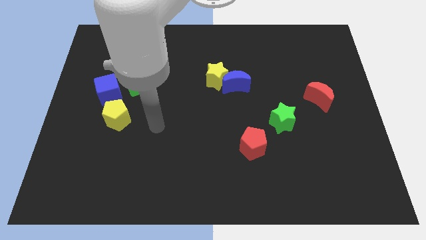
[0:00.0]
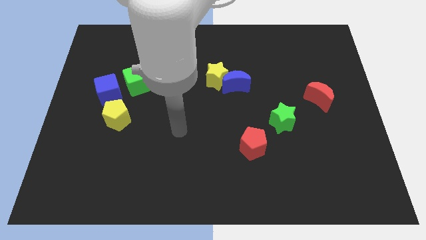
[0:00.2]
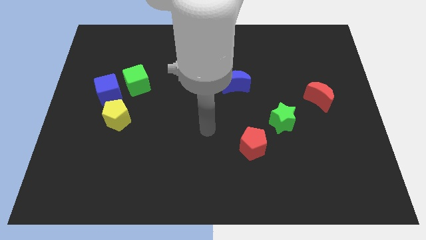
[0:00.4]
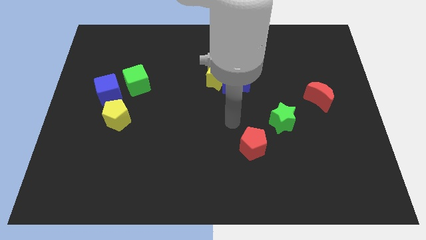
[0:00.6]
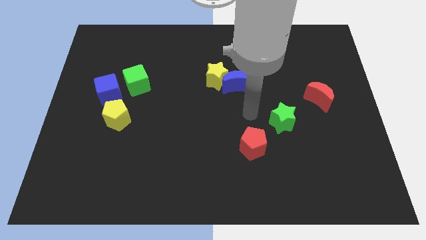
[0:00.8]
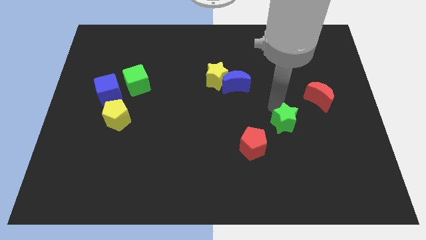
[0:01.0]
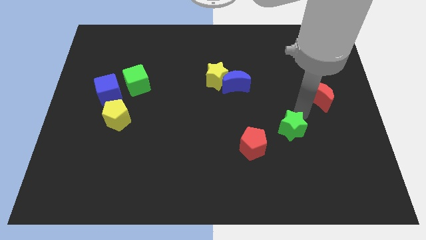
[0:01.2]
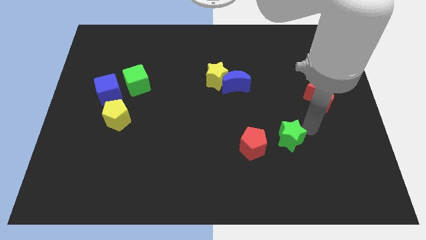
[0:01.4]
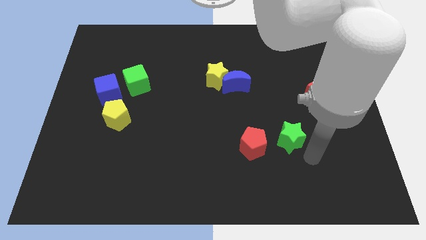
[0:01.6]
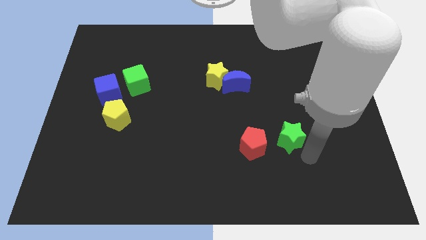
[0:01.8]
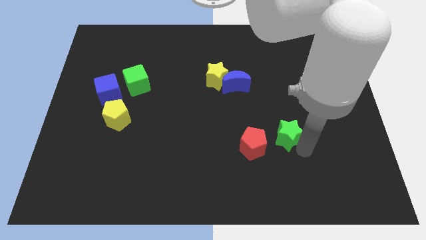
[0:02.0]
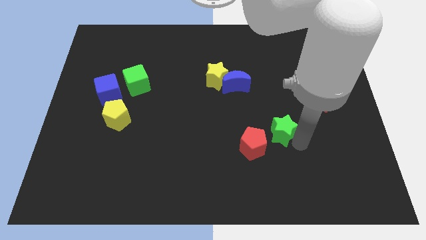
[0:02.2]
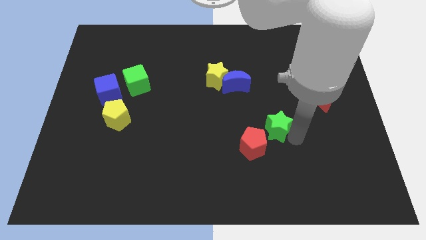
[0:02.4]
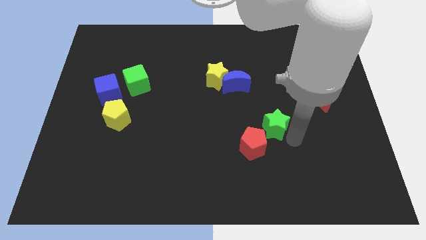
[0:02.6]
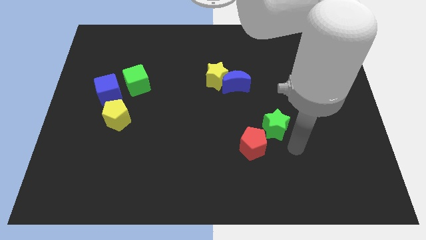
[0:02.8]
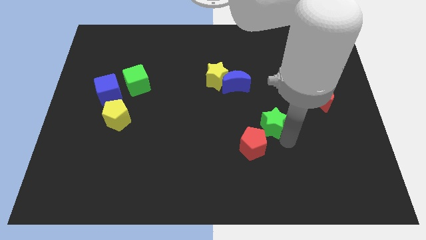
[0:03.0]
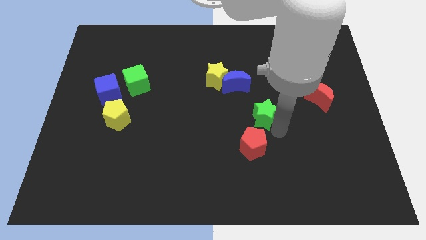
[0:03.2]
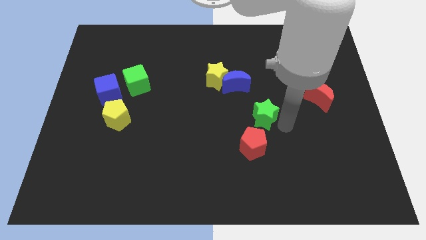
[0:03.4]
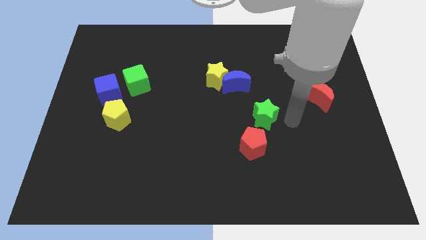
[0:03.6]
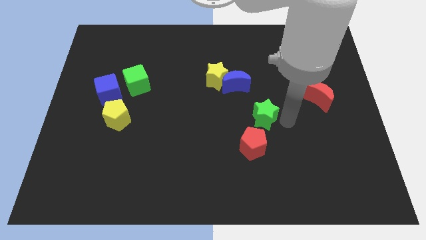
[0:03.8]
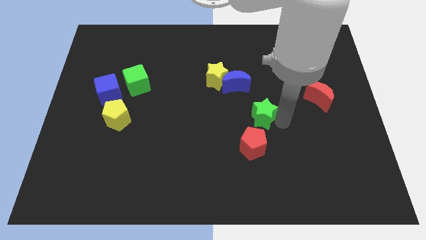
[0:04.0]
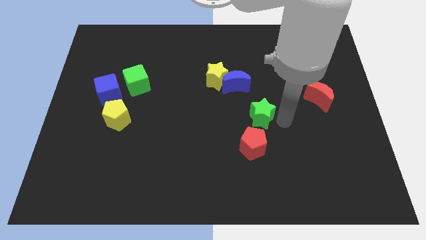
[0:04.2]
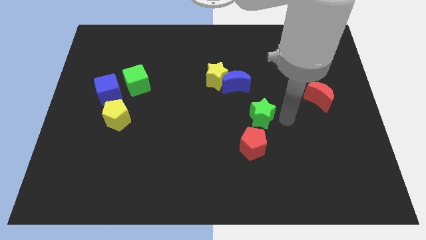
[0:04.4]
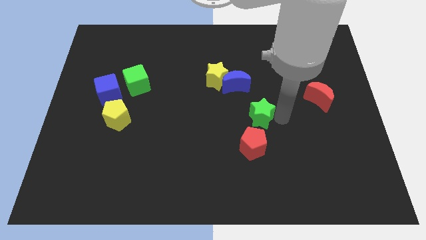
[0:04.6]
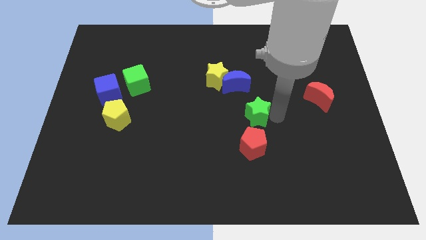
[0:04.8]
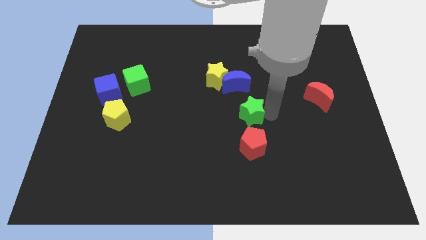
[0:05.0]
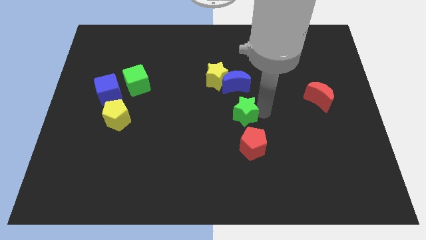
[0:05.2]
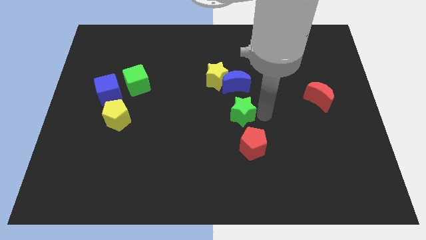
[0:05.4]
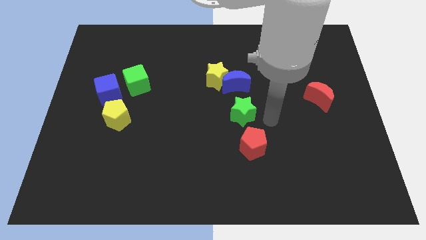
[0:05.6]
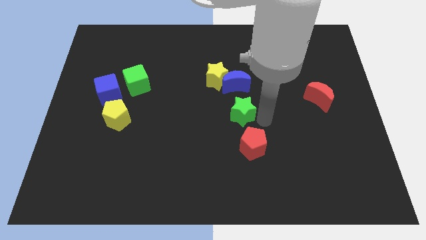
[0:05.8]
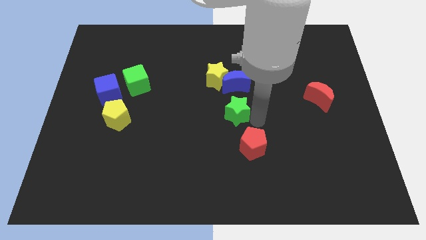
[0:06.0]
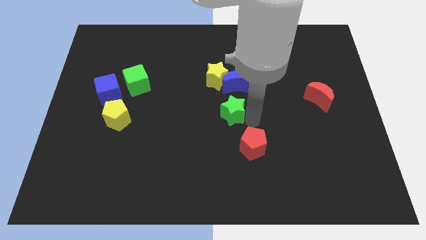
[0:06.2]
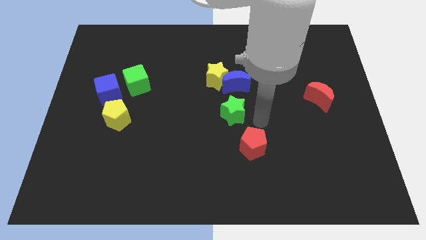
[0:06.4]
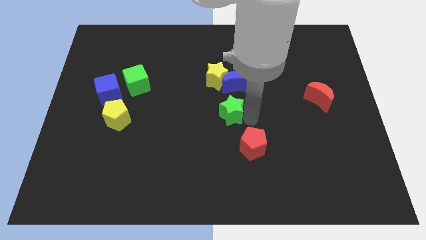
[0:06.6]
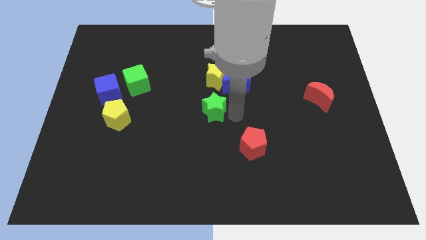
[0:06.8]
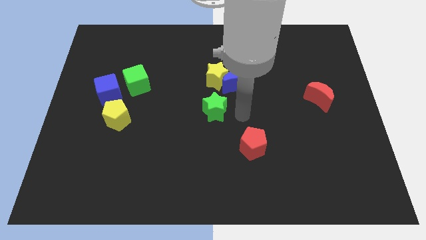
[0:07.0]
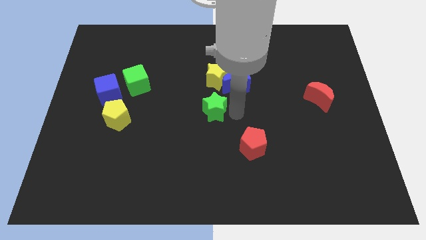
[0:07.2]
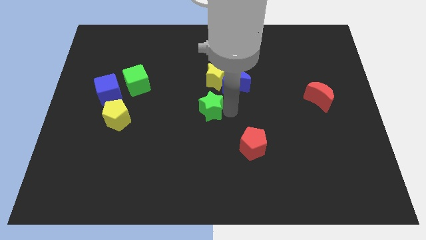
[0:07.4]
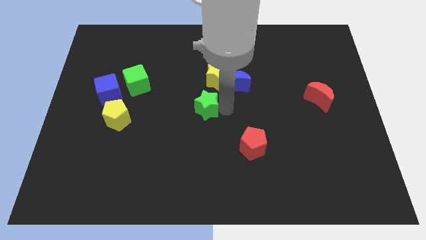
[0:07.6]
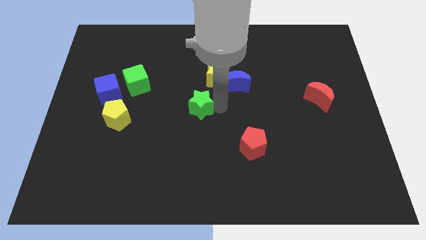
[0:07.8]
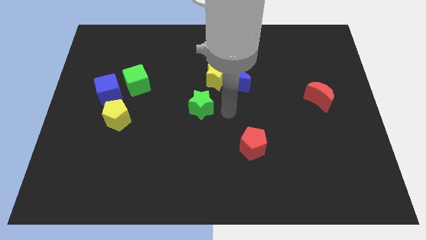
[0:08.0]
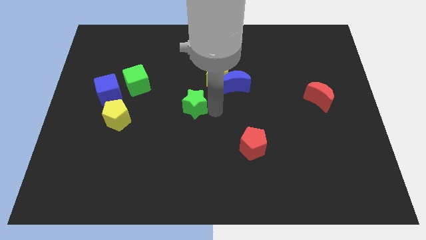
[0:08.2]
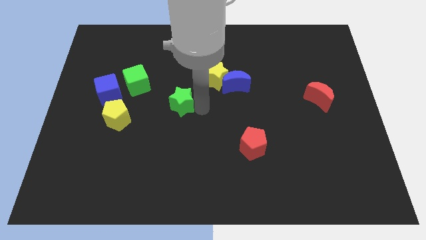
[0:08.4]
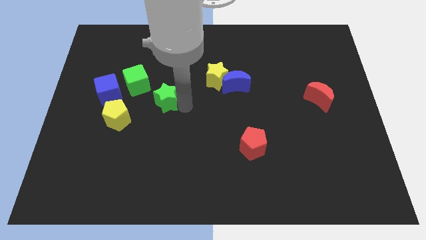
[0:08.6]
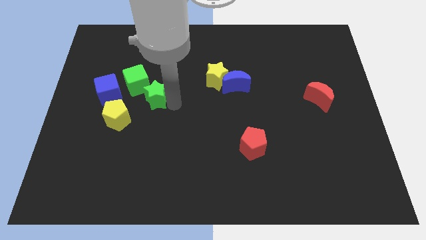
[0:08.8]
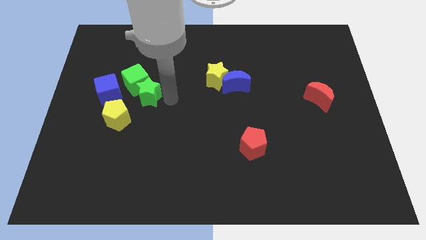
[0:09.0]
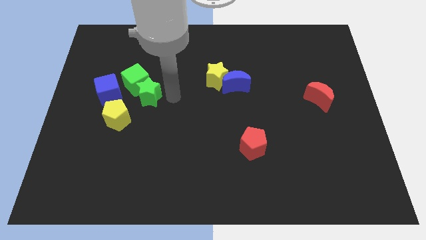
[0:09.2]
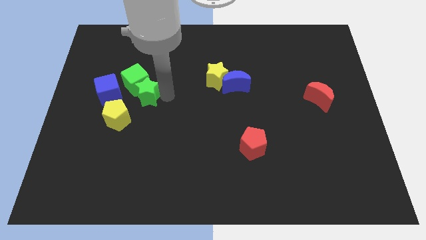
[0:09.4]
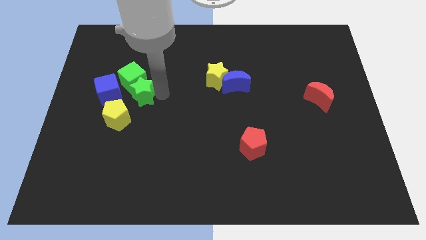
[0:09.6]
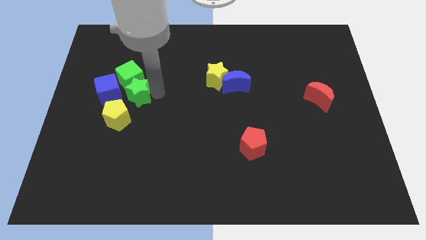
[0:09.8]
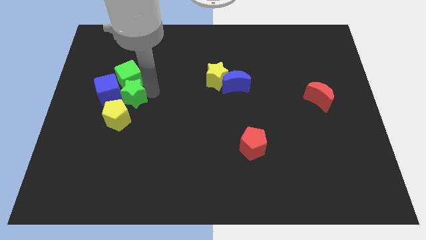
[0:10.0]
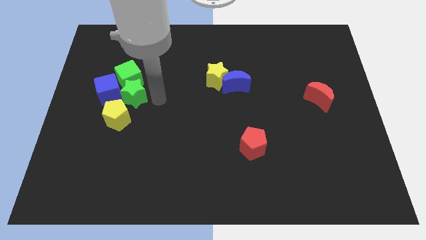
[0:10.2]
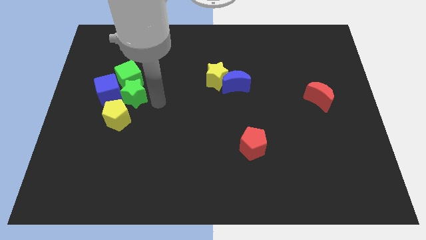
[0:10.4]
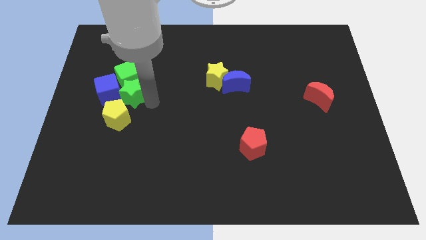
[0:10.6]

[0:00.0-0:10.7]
put the green star towards the blue cube

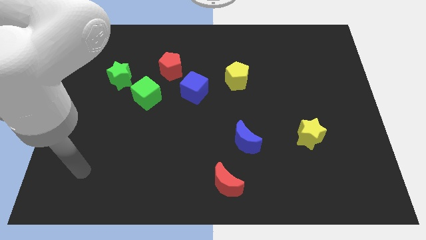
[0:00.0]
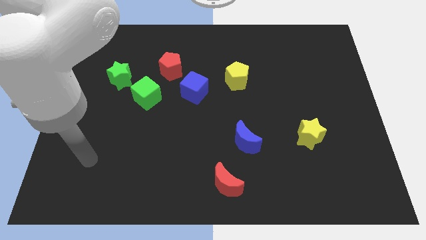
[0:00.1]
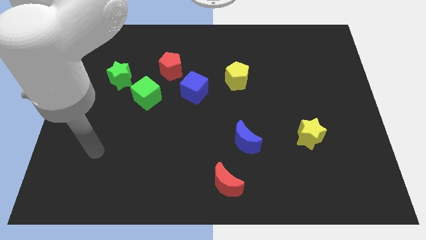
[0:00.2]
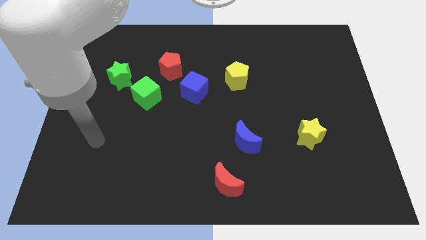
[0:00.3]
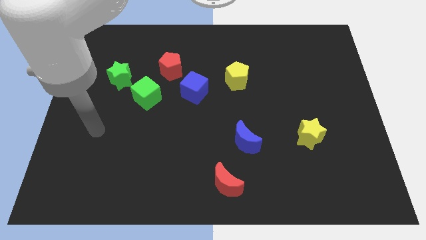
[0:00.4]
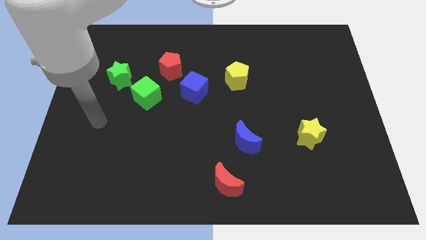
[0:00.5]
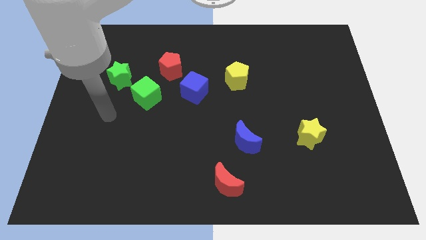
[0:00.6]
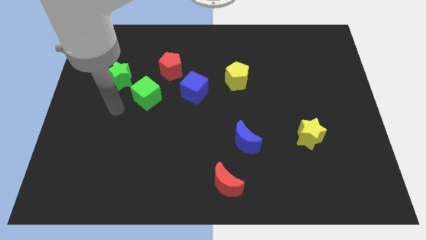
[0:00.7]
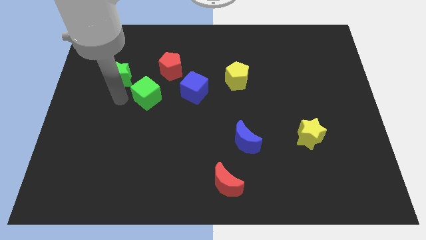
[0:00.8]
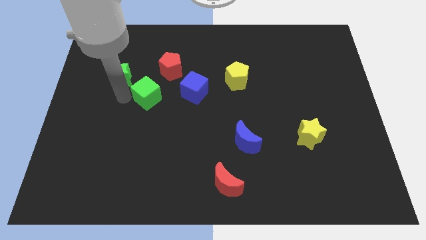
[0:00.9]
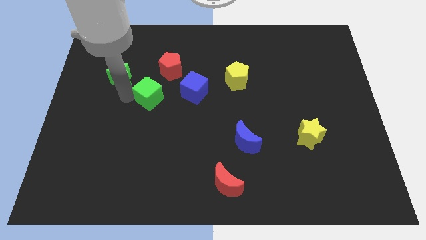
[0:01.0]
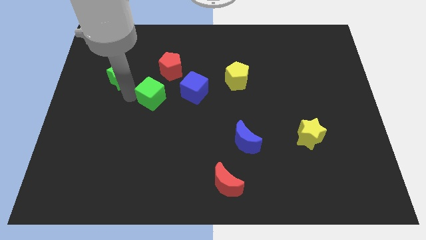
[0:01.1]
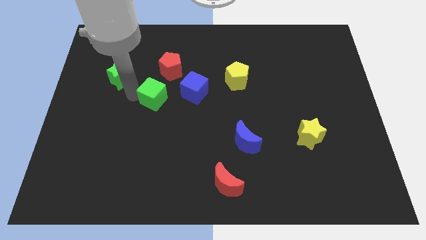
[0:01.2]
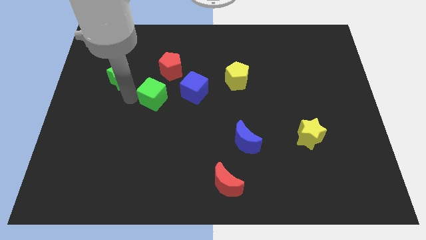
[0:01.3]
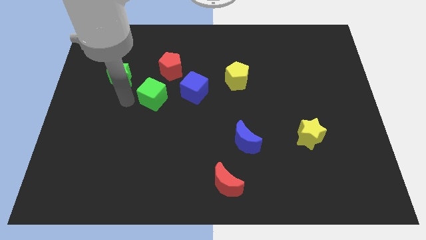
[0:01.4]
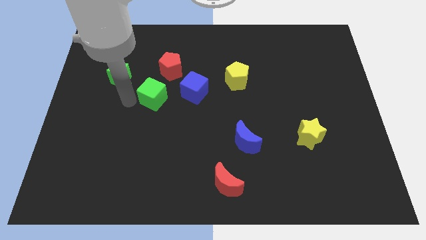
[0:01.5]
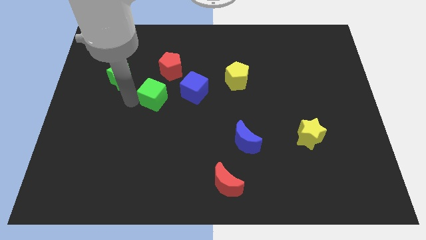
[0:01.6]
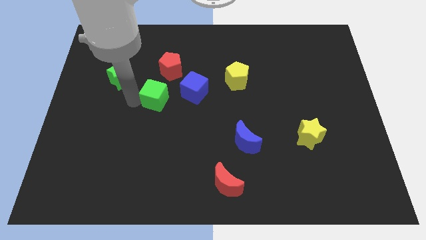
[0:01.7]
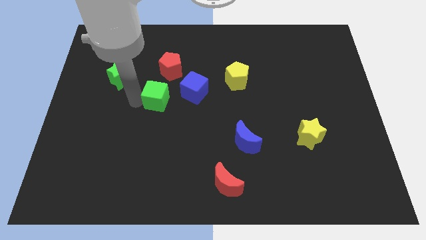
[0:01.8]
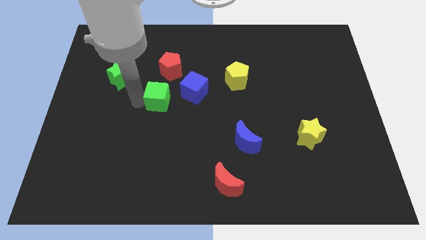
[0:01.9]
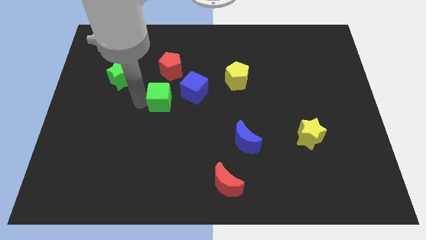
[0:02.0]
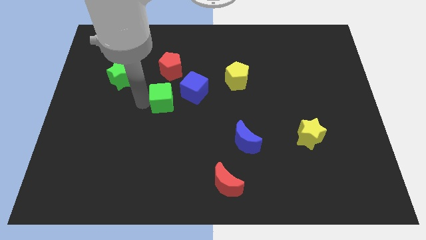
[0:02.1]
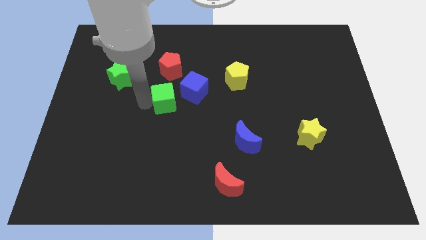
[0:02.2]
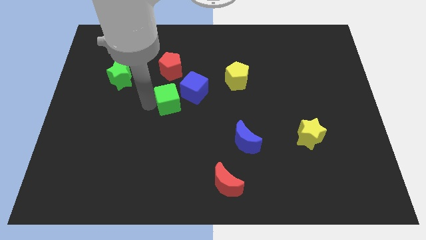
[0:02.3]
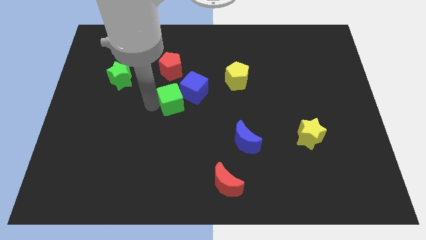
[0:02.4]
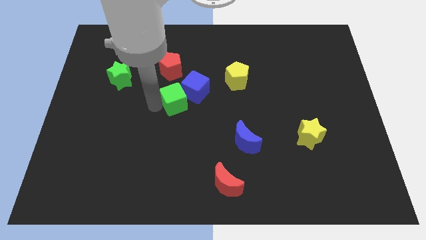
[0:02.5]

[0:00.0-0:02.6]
push the green cube towards the blue cube
